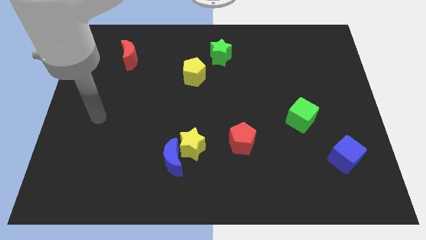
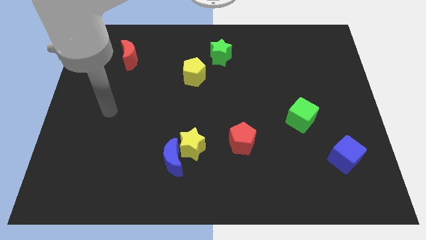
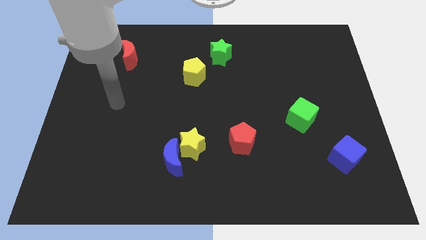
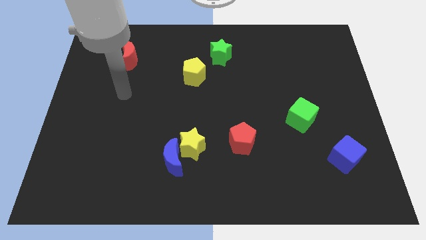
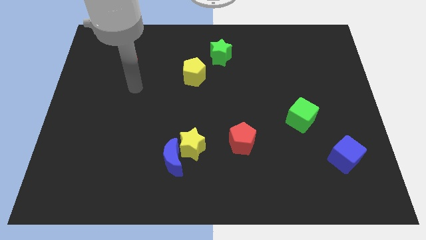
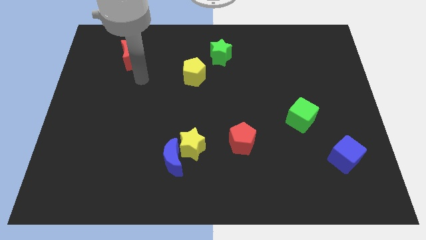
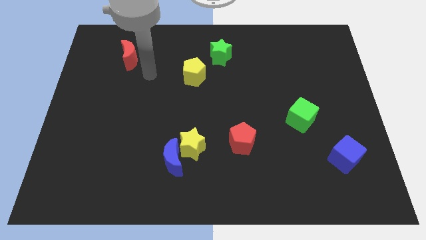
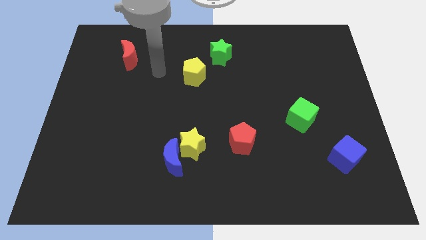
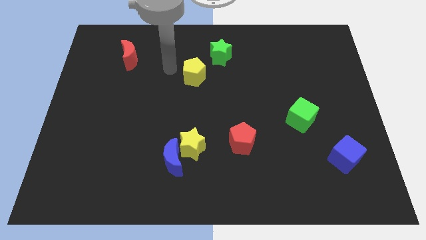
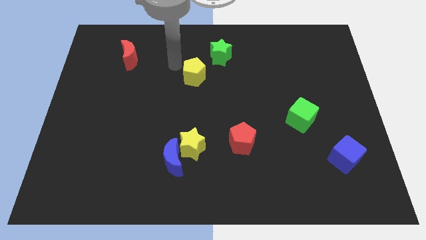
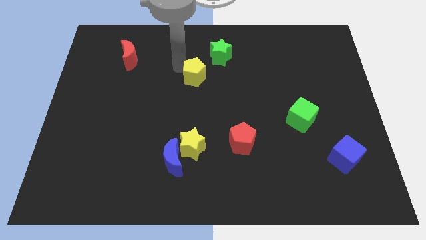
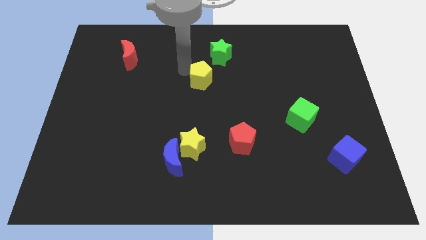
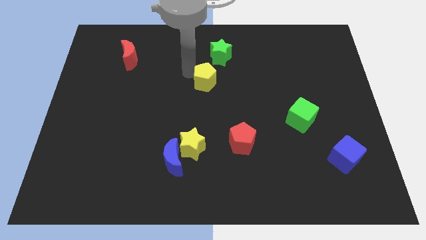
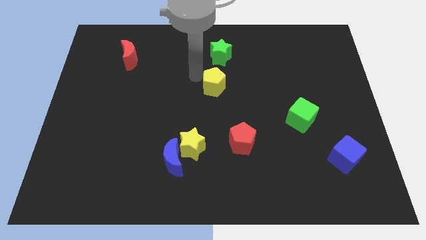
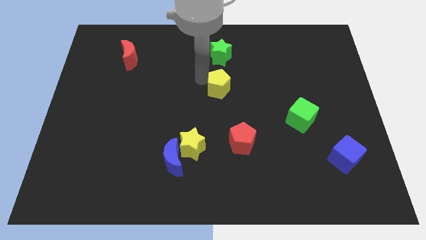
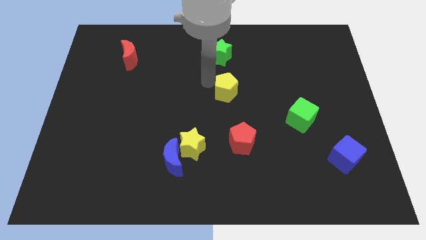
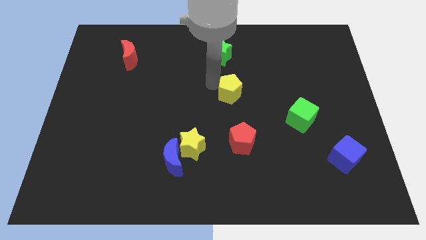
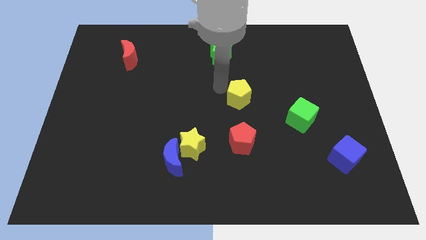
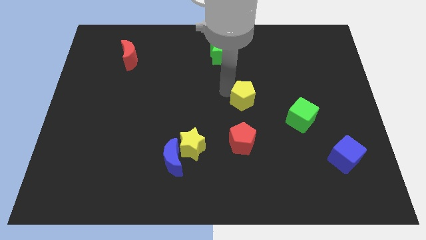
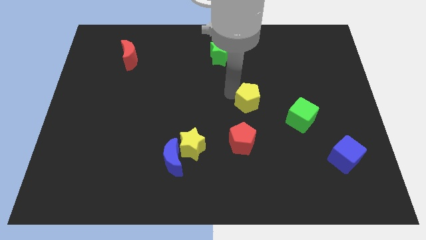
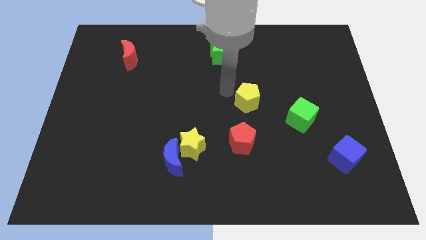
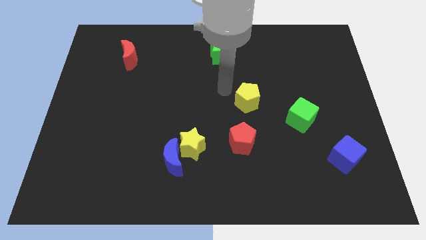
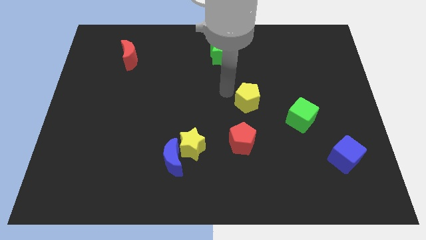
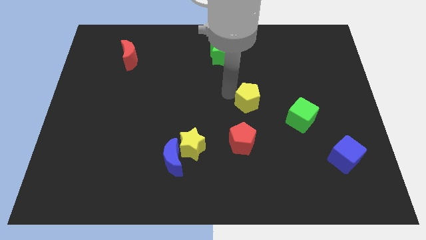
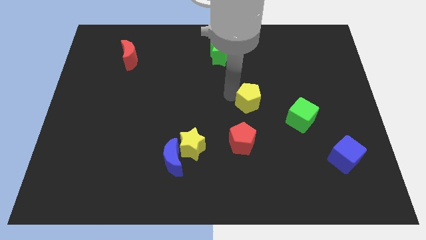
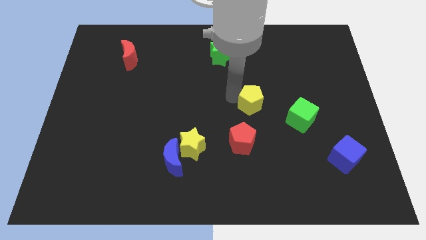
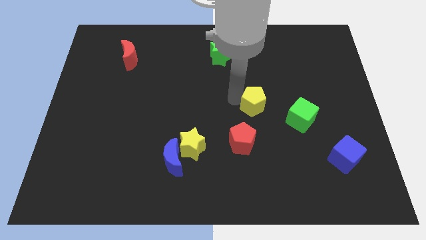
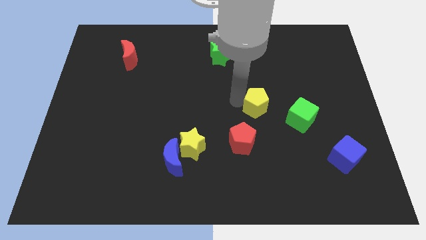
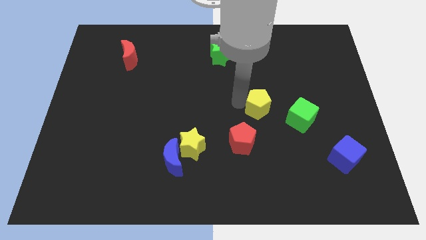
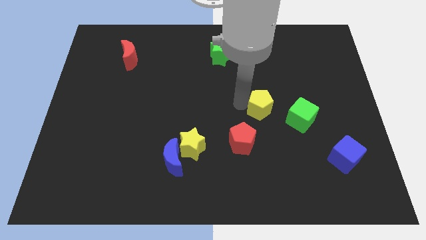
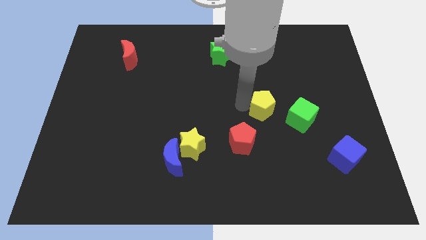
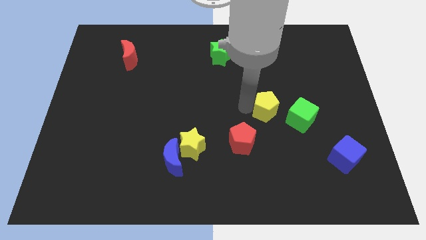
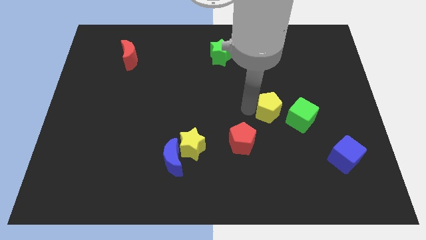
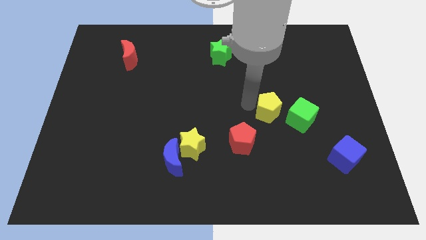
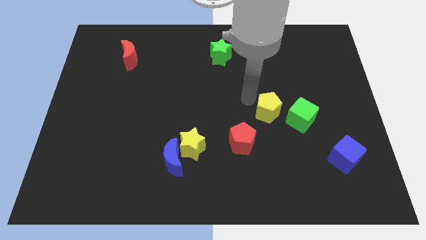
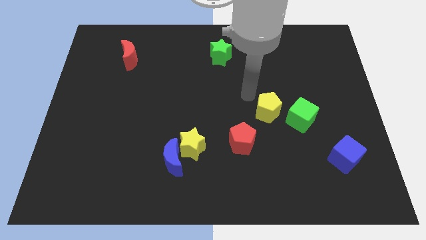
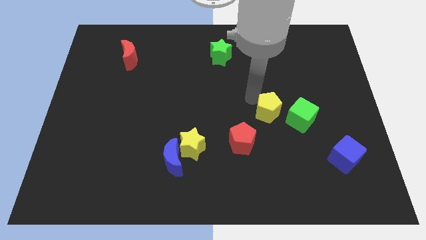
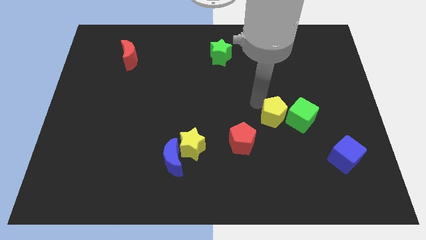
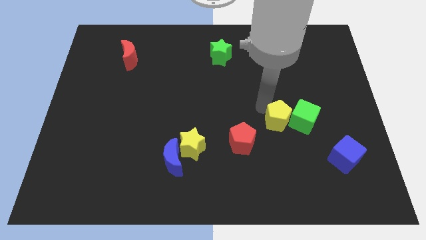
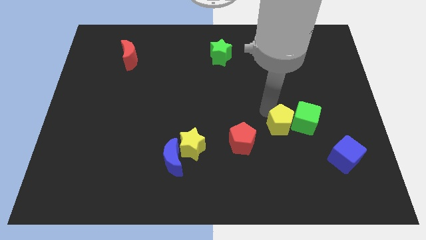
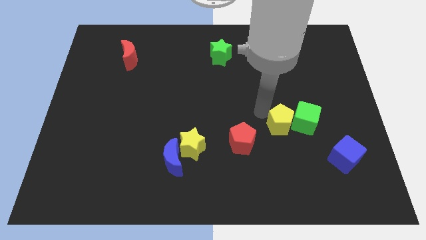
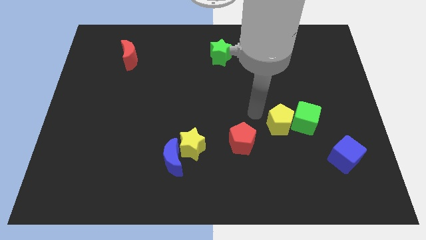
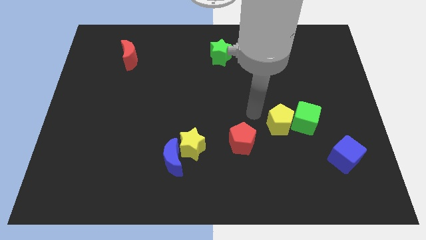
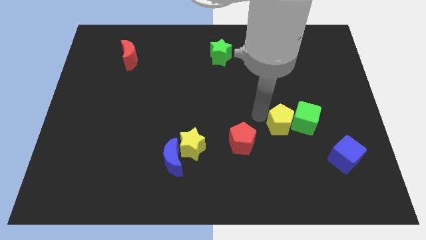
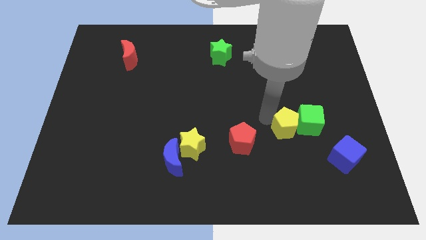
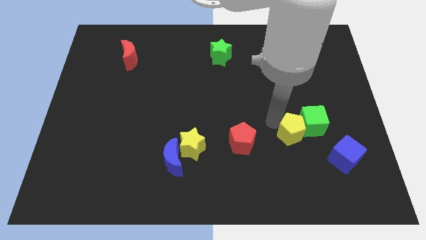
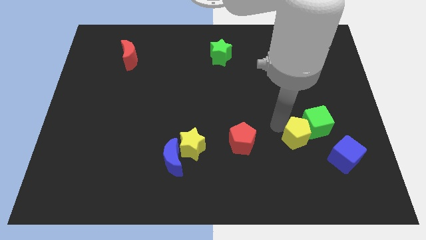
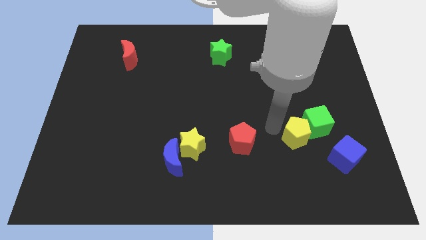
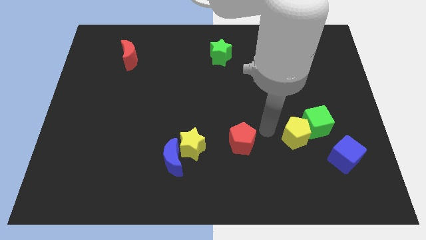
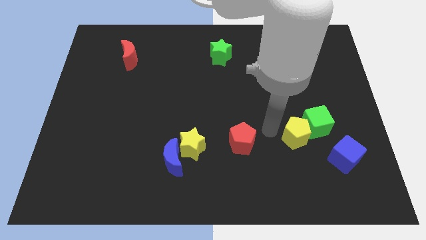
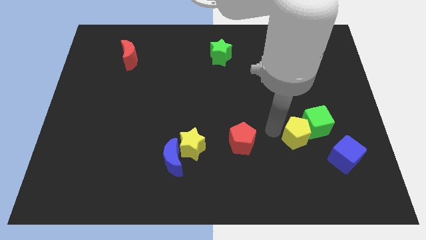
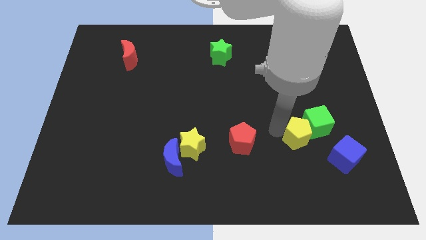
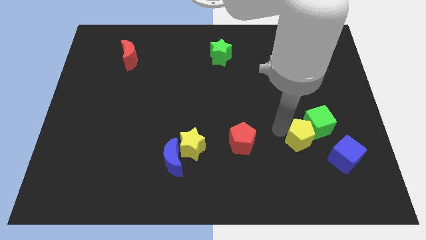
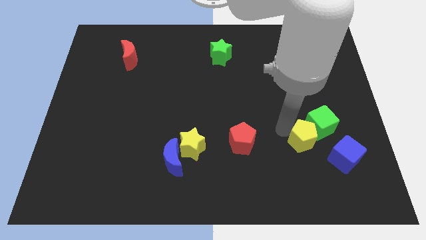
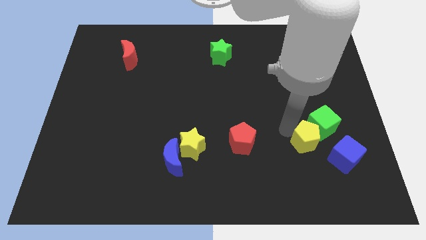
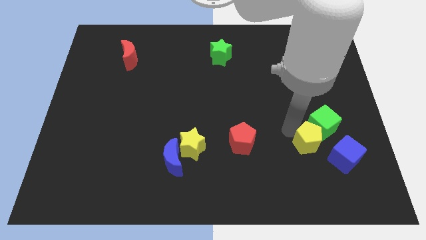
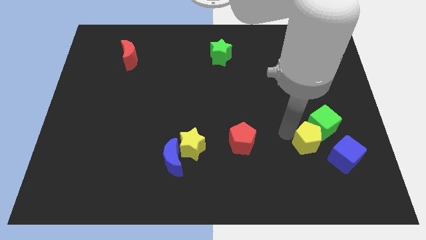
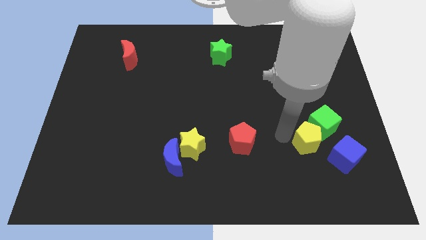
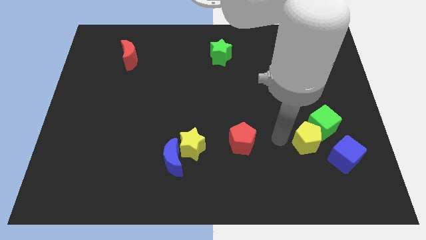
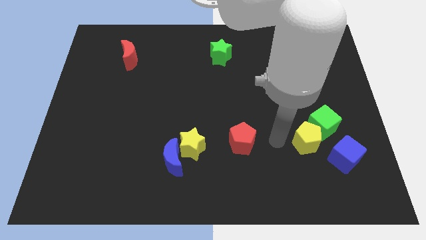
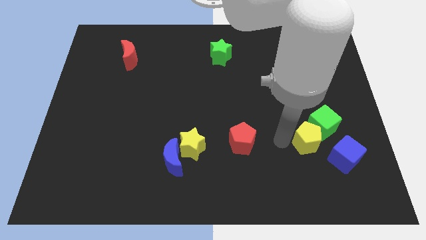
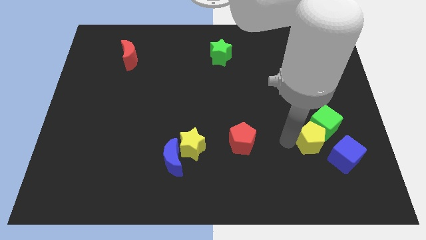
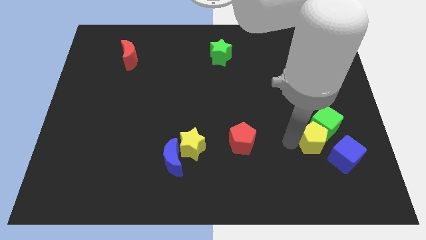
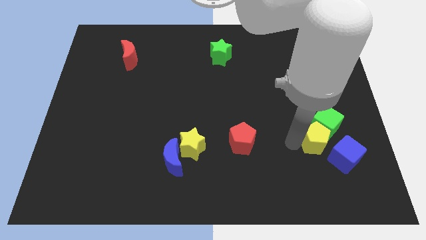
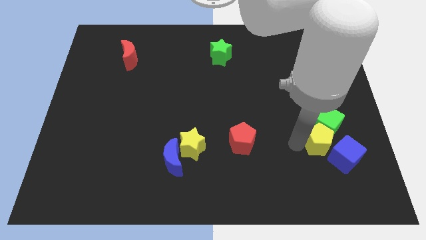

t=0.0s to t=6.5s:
slide the yellow pentagon towards the blue cube
